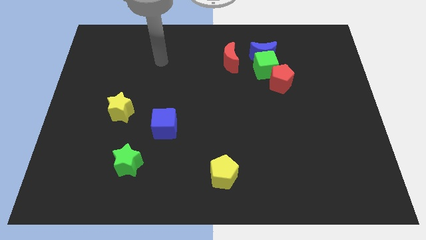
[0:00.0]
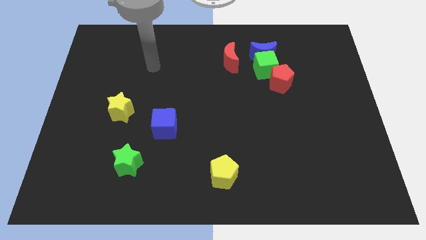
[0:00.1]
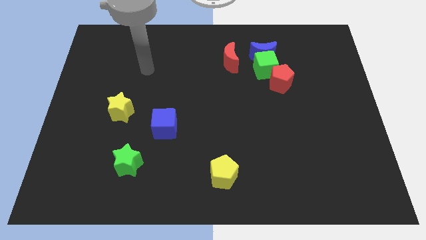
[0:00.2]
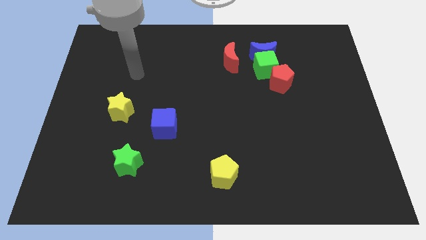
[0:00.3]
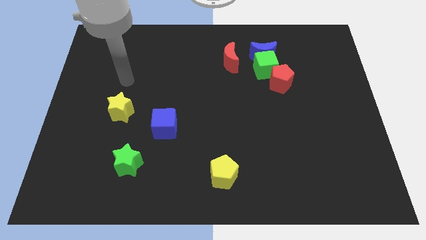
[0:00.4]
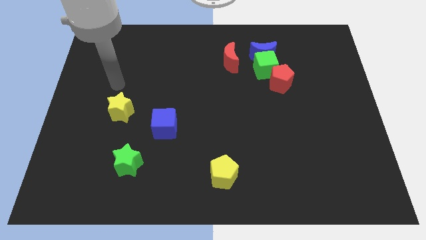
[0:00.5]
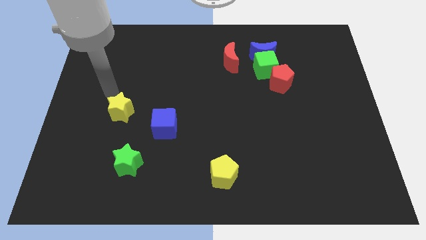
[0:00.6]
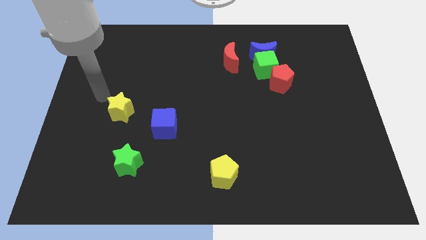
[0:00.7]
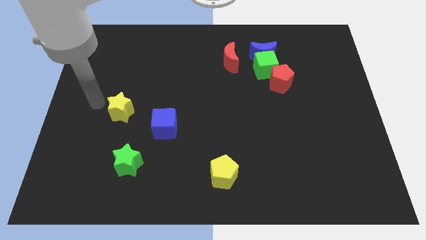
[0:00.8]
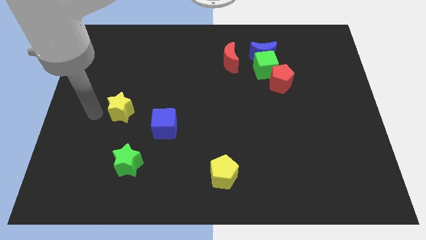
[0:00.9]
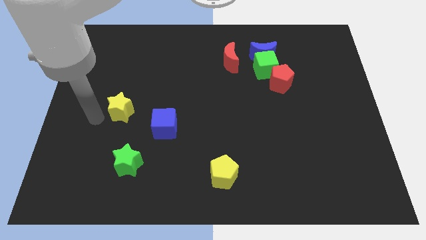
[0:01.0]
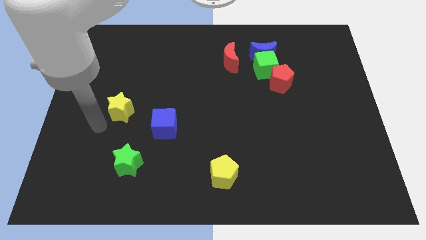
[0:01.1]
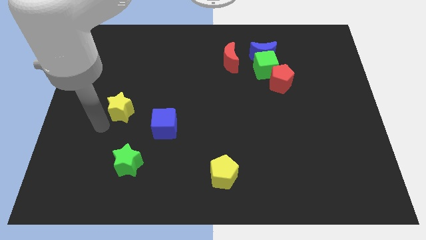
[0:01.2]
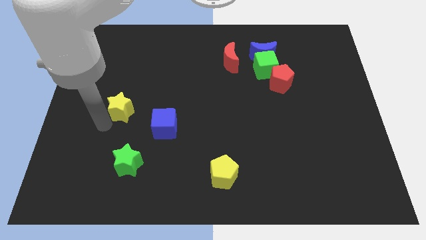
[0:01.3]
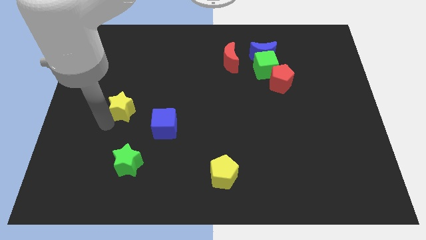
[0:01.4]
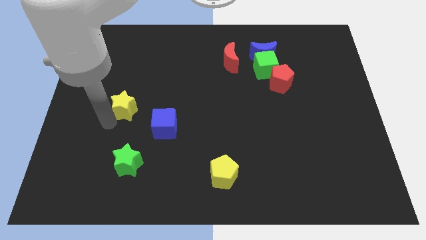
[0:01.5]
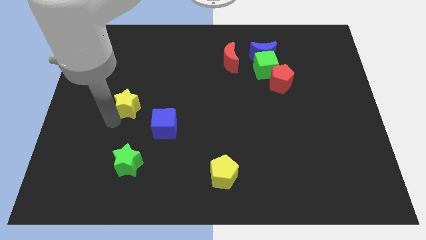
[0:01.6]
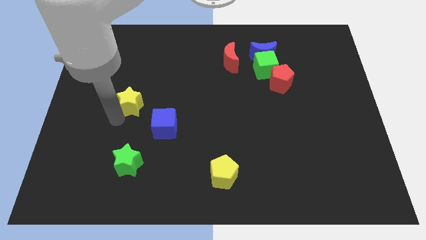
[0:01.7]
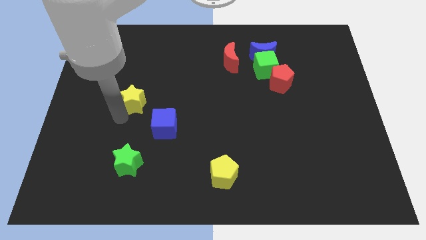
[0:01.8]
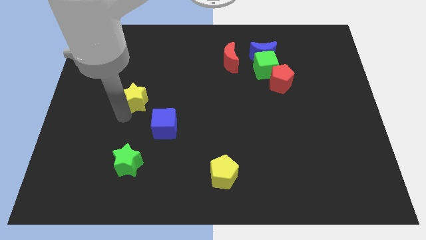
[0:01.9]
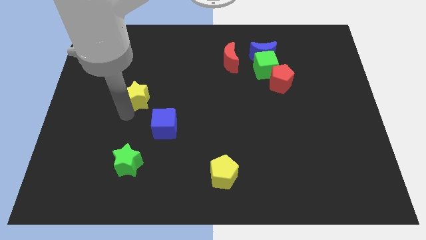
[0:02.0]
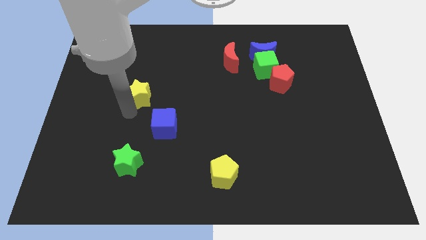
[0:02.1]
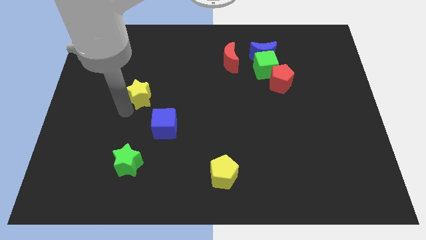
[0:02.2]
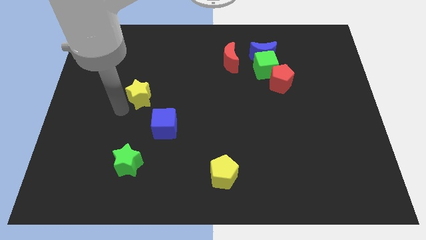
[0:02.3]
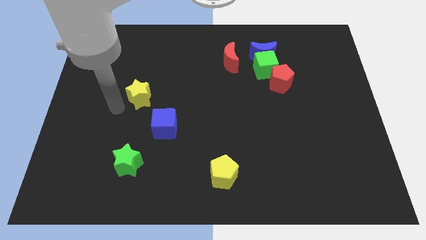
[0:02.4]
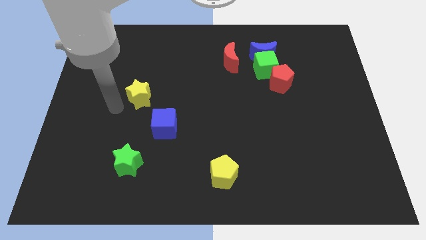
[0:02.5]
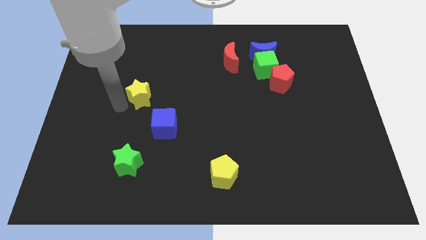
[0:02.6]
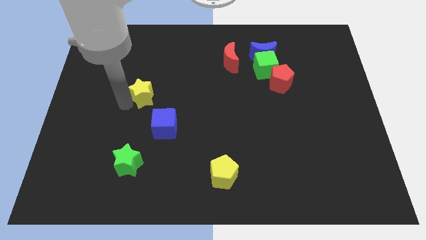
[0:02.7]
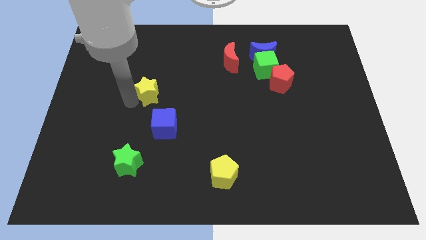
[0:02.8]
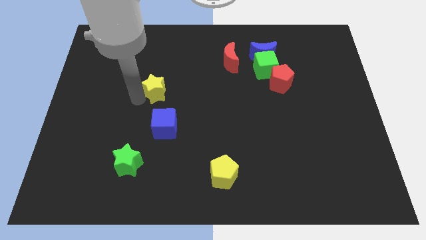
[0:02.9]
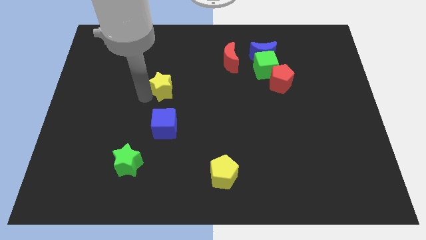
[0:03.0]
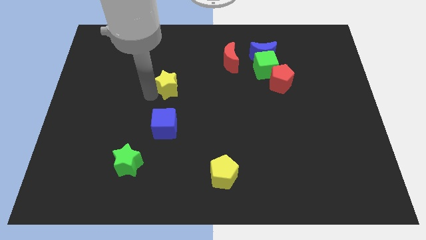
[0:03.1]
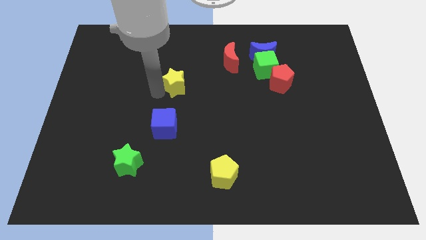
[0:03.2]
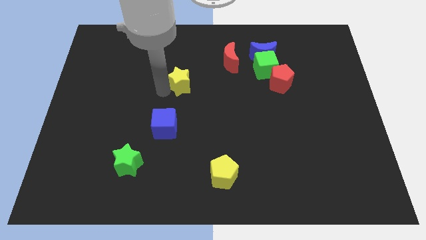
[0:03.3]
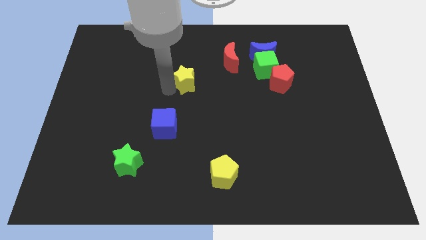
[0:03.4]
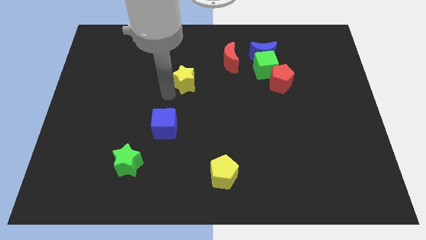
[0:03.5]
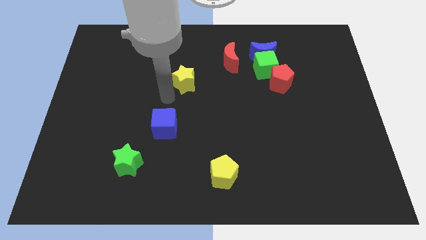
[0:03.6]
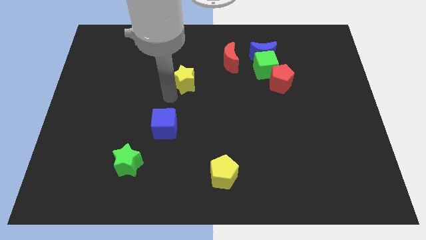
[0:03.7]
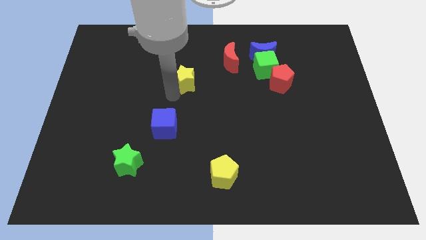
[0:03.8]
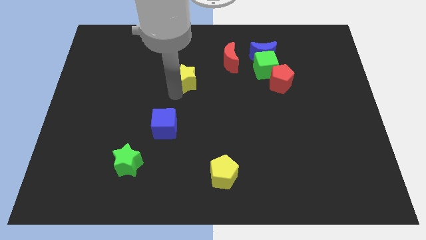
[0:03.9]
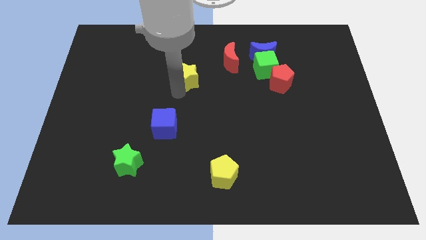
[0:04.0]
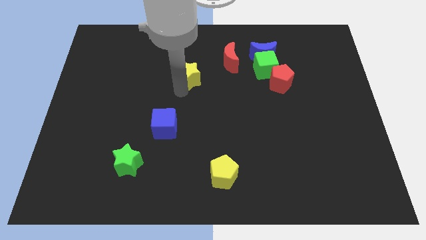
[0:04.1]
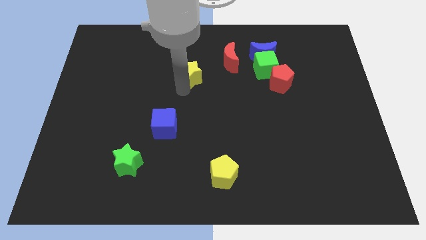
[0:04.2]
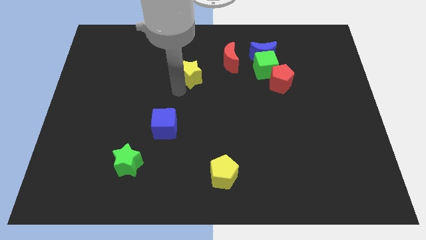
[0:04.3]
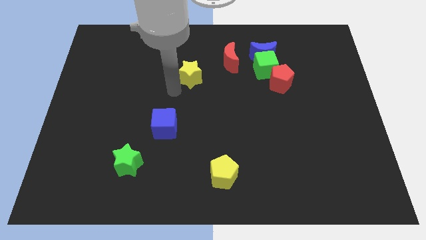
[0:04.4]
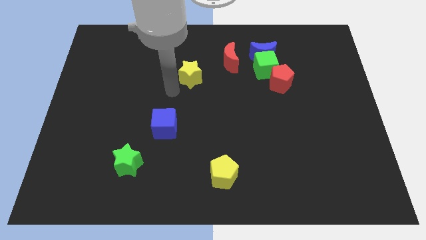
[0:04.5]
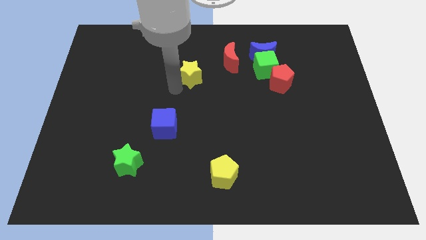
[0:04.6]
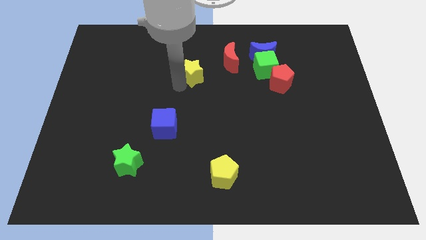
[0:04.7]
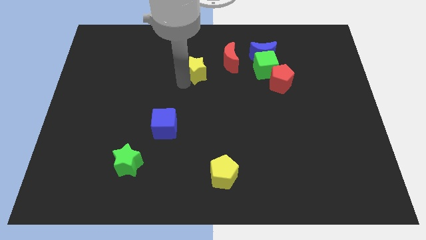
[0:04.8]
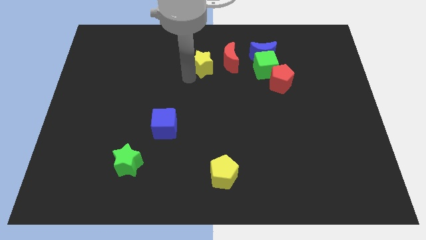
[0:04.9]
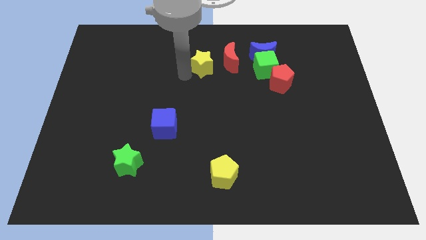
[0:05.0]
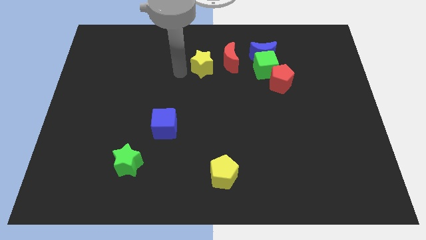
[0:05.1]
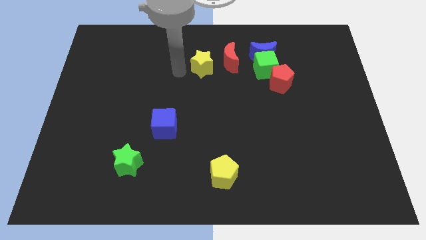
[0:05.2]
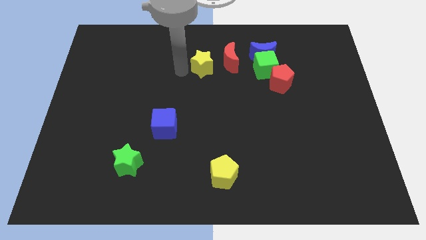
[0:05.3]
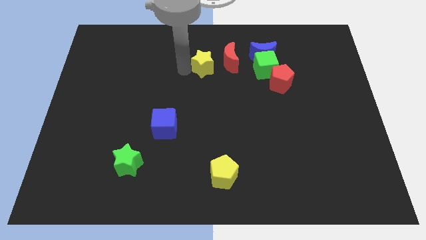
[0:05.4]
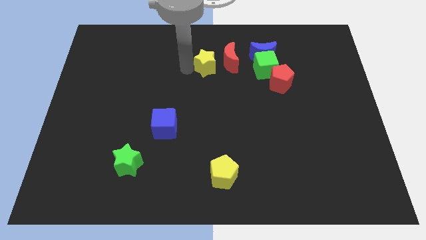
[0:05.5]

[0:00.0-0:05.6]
slide the yellow star towards the red moon

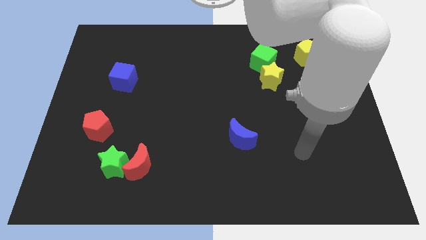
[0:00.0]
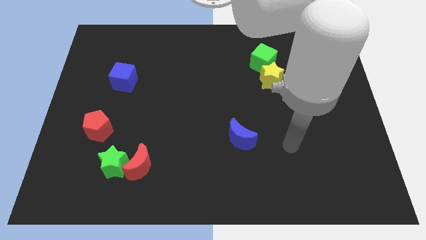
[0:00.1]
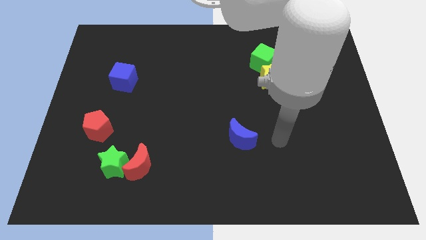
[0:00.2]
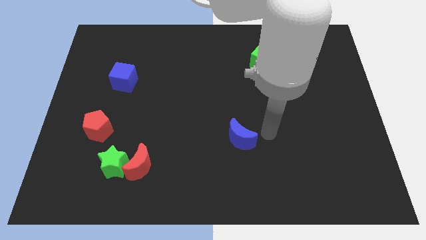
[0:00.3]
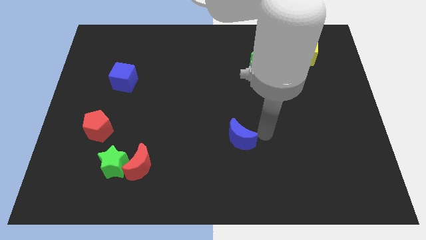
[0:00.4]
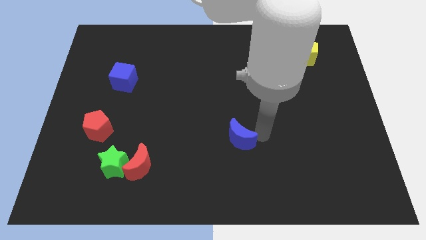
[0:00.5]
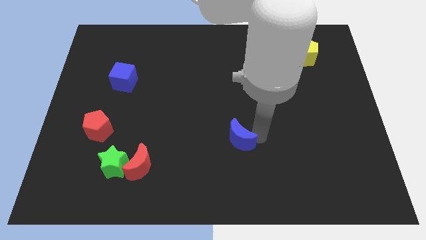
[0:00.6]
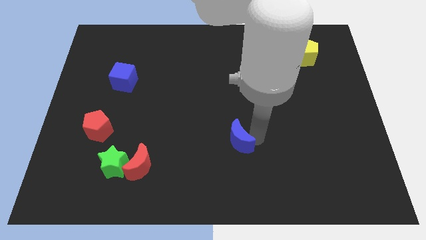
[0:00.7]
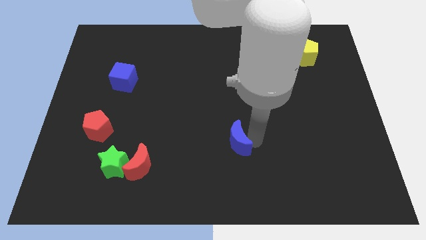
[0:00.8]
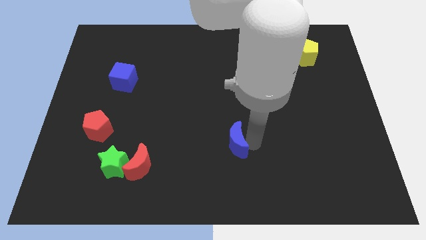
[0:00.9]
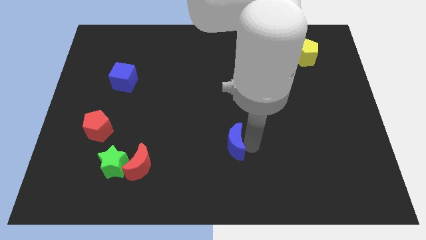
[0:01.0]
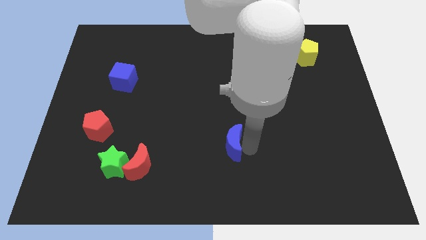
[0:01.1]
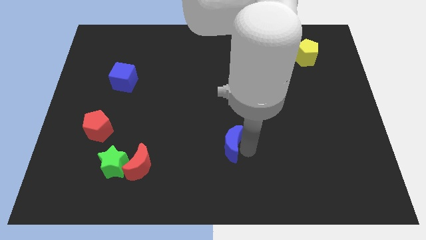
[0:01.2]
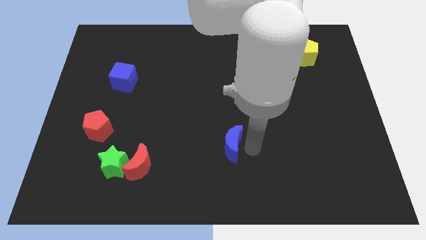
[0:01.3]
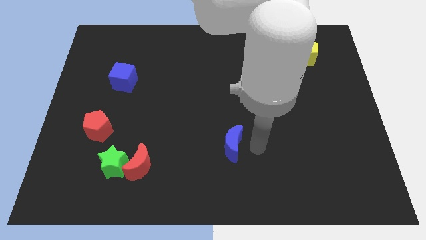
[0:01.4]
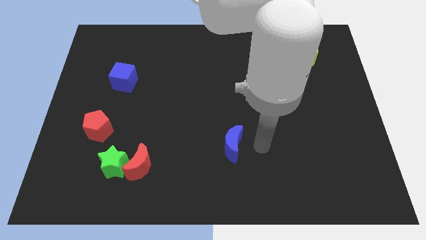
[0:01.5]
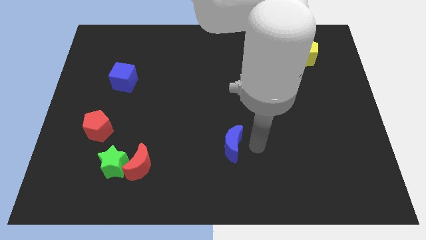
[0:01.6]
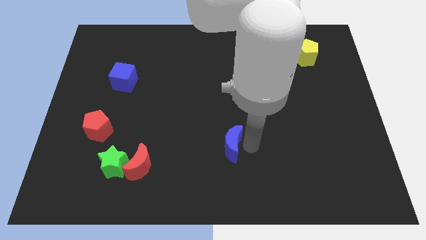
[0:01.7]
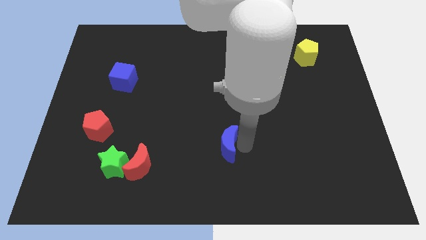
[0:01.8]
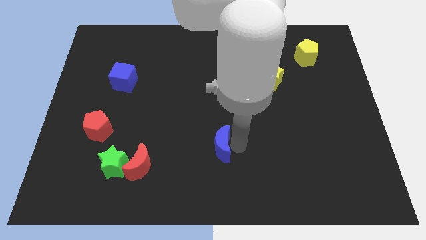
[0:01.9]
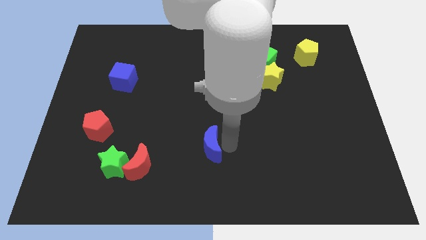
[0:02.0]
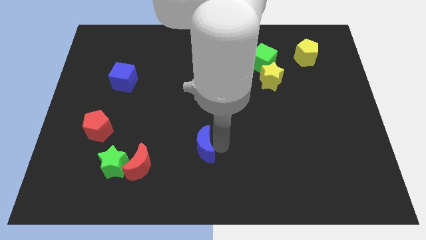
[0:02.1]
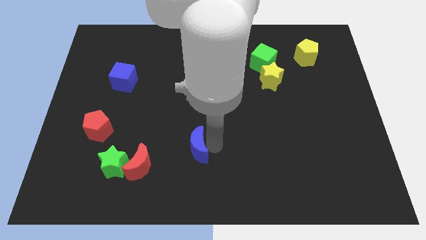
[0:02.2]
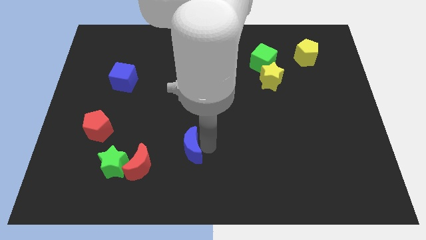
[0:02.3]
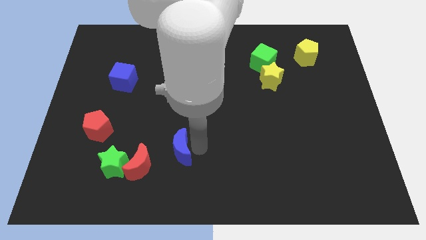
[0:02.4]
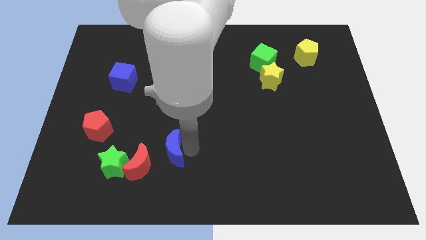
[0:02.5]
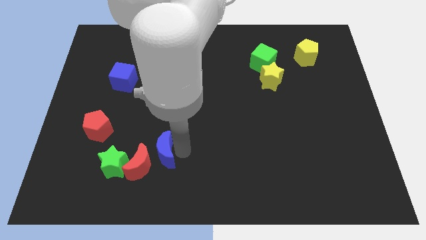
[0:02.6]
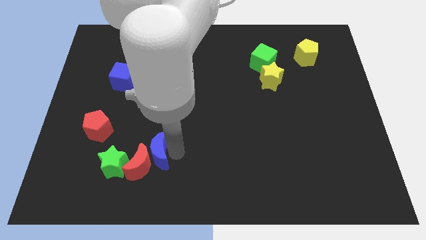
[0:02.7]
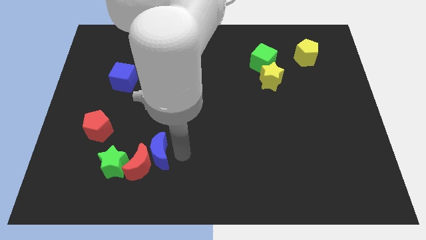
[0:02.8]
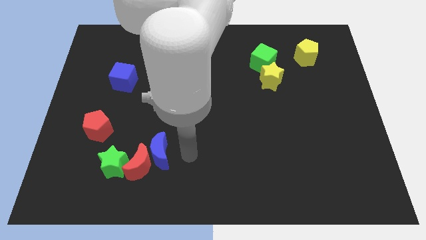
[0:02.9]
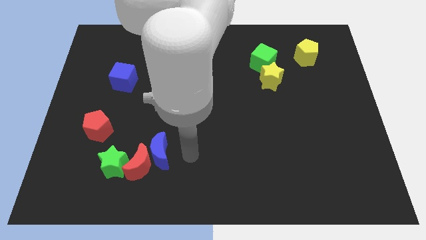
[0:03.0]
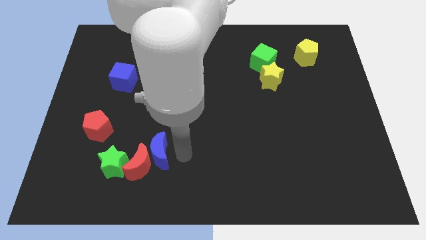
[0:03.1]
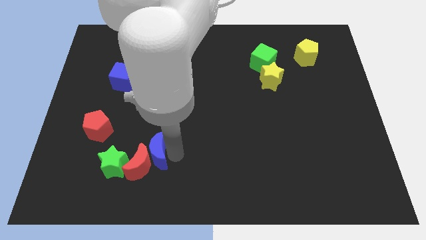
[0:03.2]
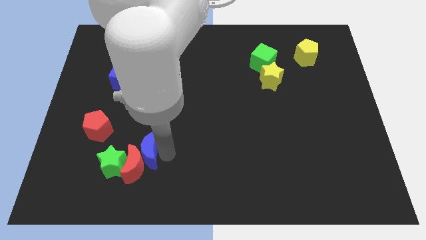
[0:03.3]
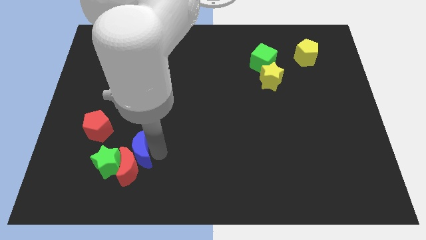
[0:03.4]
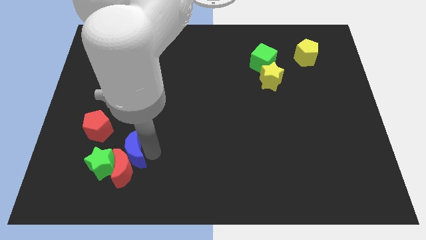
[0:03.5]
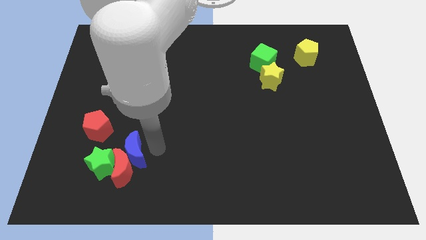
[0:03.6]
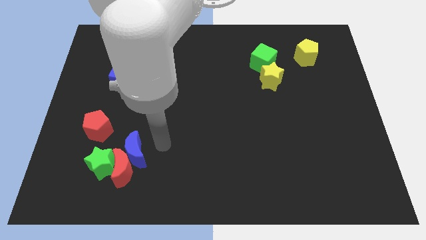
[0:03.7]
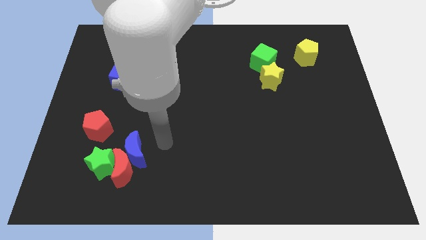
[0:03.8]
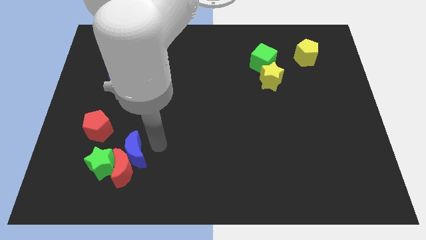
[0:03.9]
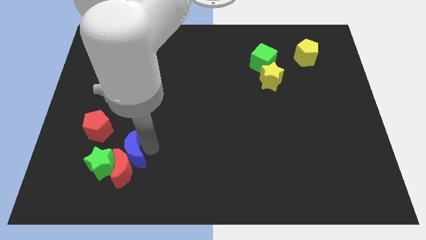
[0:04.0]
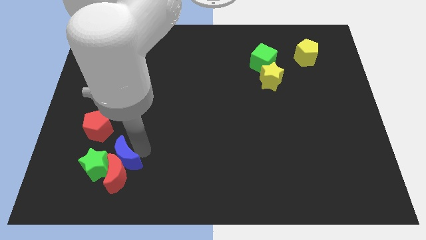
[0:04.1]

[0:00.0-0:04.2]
put the blue moon next to the green star
